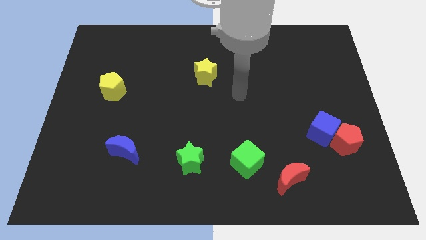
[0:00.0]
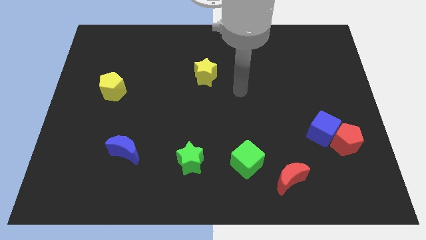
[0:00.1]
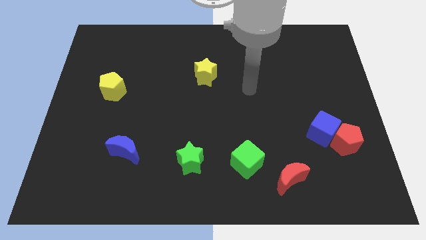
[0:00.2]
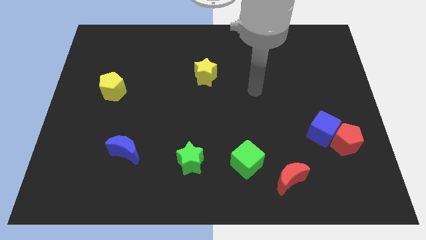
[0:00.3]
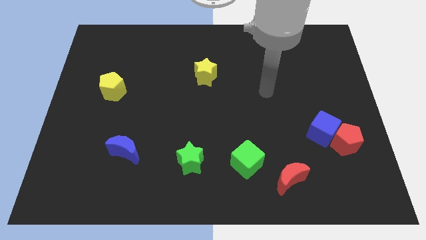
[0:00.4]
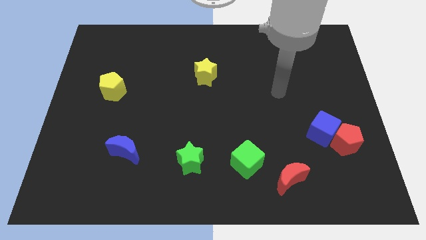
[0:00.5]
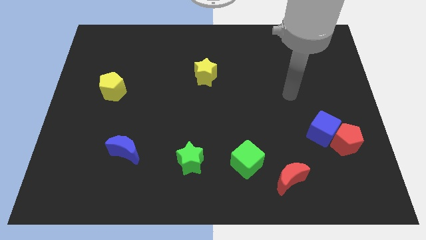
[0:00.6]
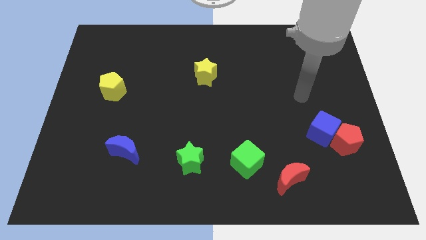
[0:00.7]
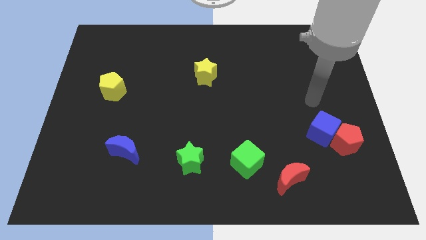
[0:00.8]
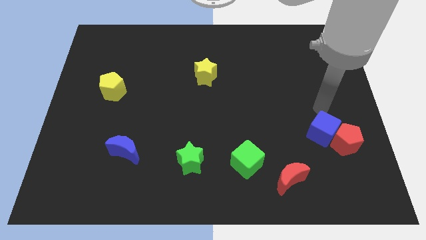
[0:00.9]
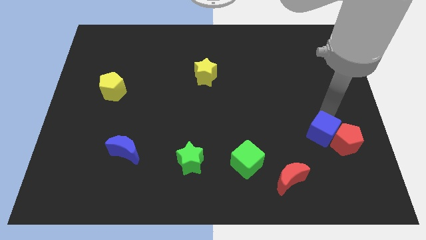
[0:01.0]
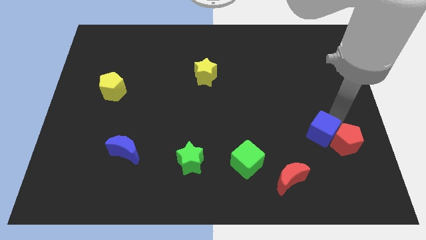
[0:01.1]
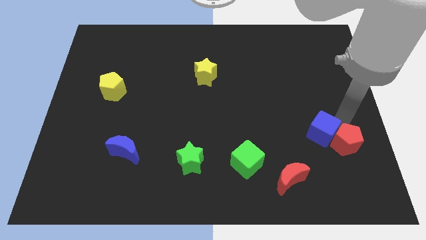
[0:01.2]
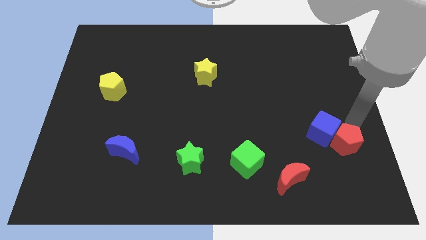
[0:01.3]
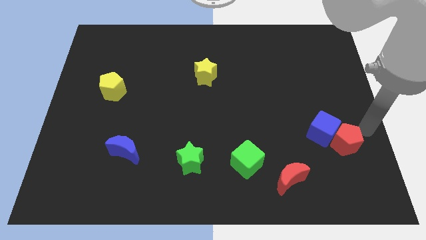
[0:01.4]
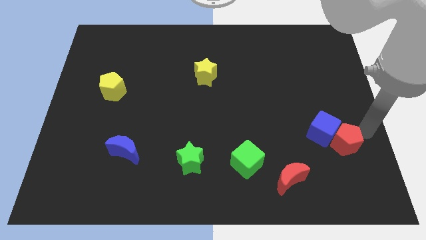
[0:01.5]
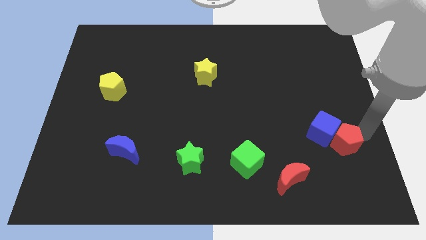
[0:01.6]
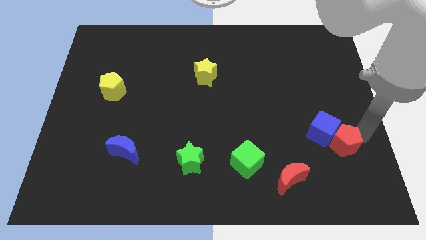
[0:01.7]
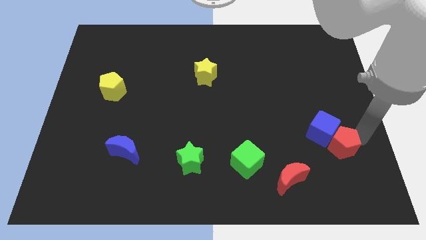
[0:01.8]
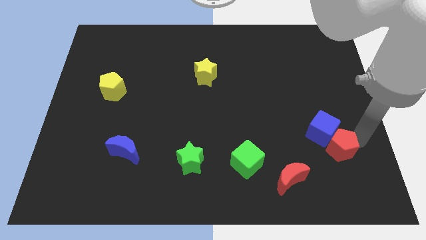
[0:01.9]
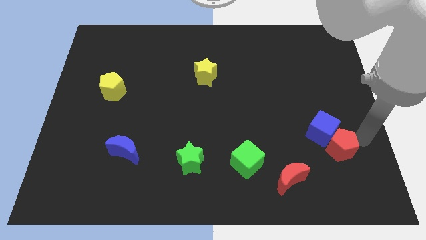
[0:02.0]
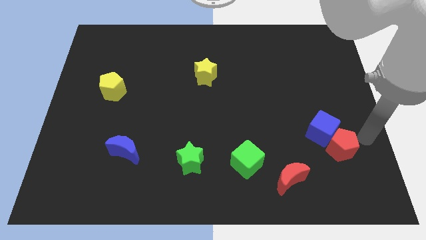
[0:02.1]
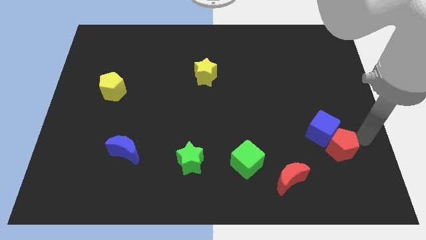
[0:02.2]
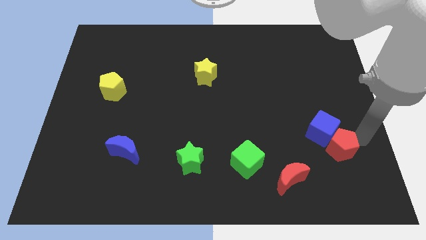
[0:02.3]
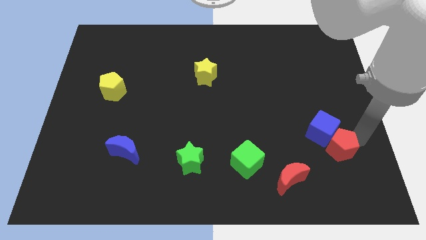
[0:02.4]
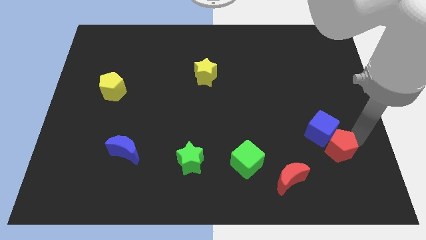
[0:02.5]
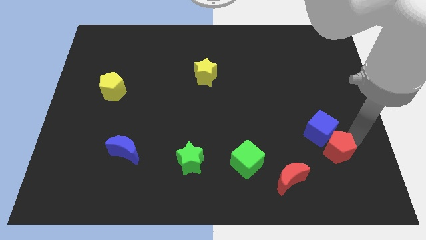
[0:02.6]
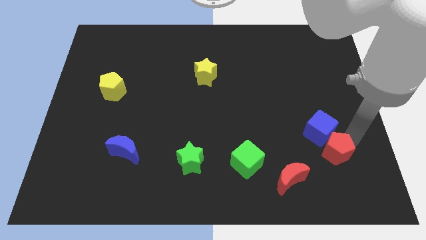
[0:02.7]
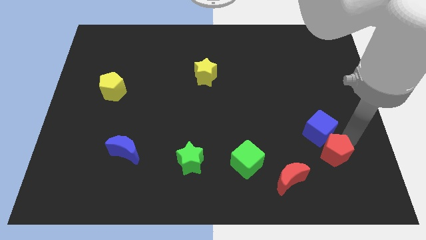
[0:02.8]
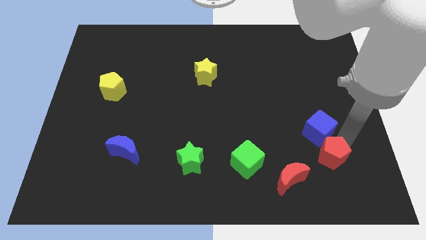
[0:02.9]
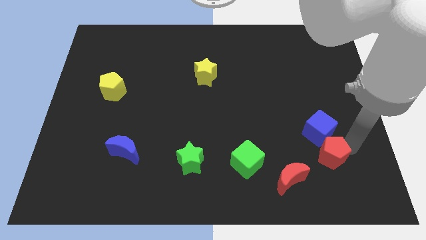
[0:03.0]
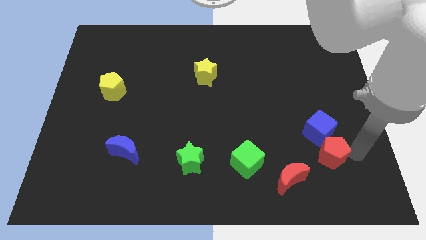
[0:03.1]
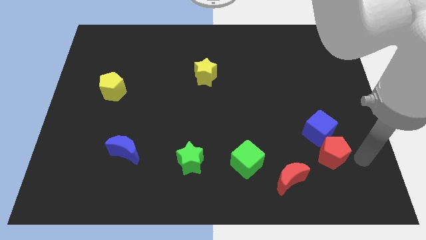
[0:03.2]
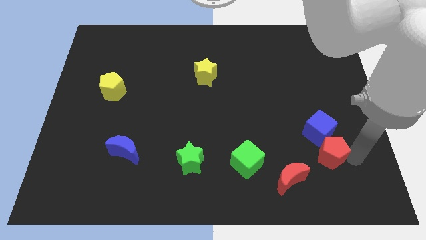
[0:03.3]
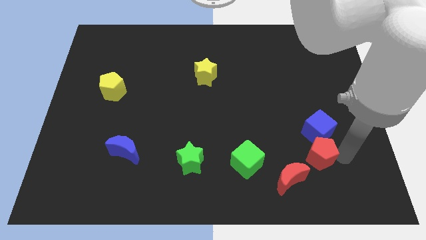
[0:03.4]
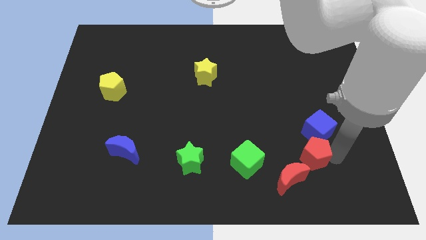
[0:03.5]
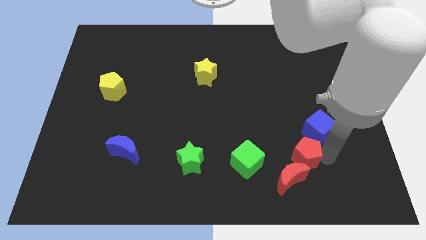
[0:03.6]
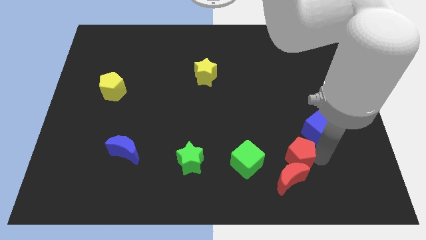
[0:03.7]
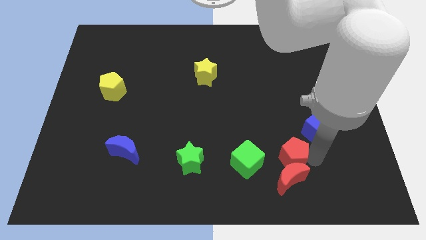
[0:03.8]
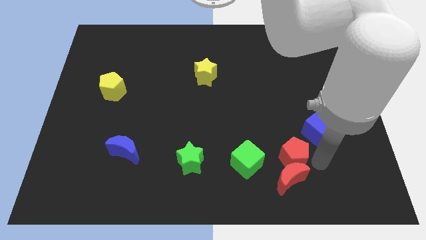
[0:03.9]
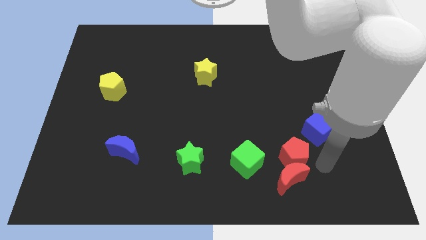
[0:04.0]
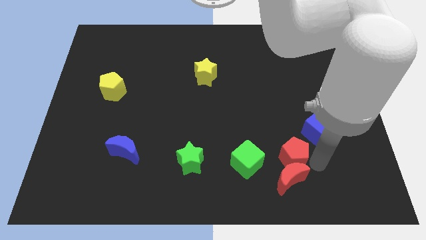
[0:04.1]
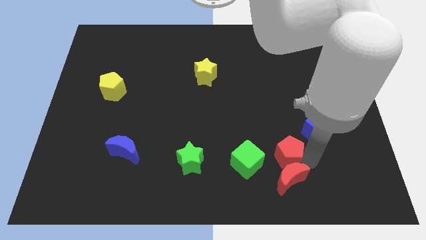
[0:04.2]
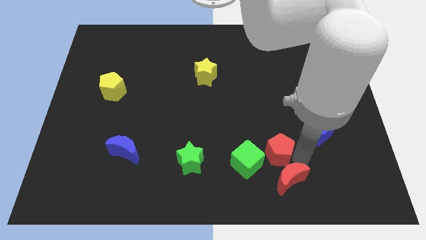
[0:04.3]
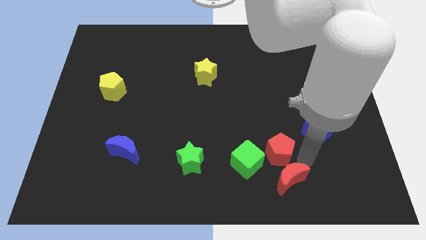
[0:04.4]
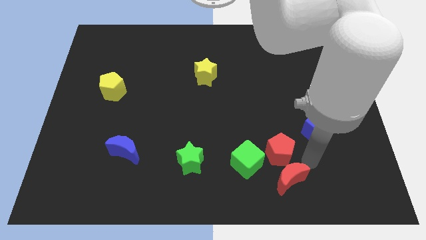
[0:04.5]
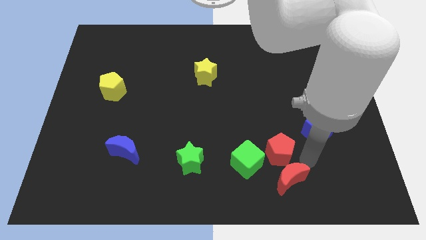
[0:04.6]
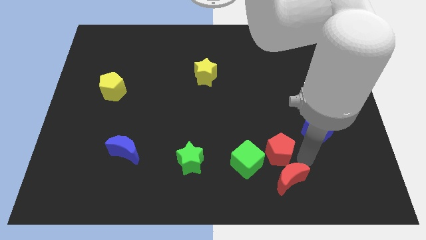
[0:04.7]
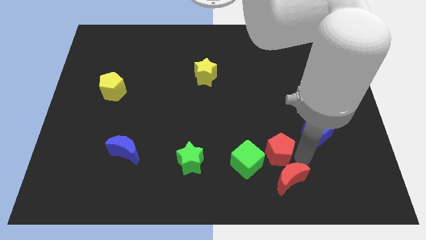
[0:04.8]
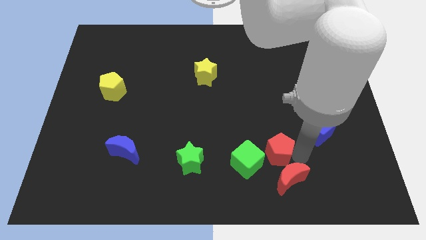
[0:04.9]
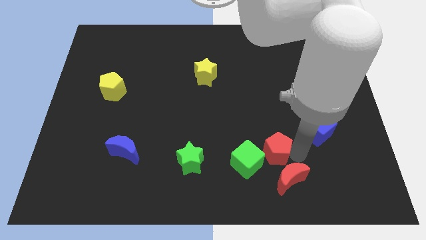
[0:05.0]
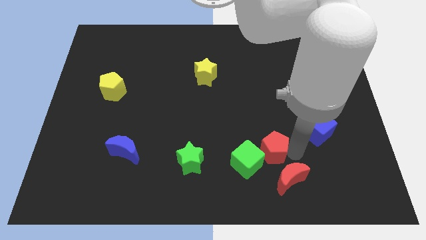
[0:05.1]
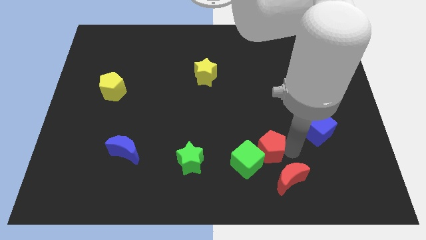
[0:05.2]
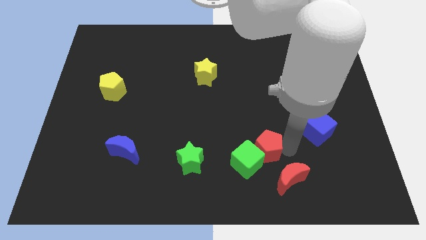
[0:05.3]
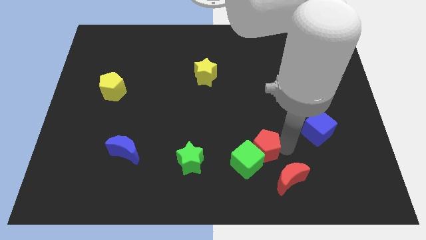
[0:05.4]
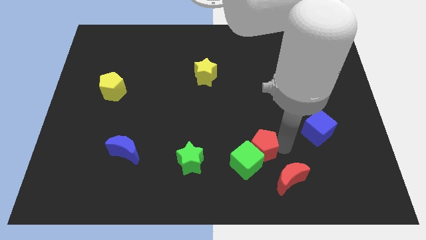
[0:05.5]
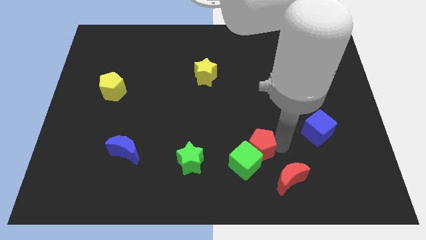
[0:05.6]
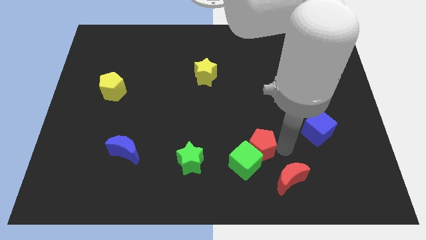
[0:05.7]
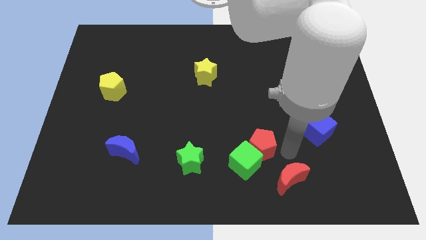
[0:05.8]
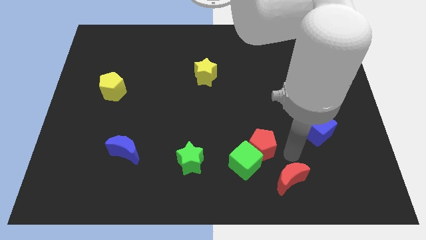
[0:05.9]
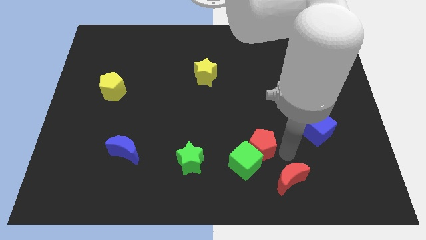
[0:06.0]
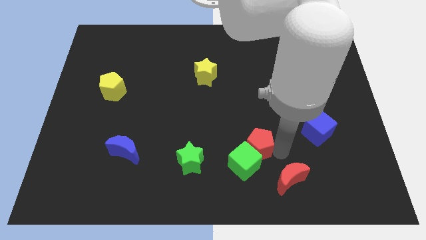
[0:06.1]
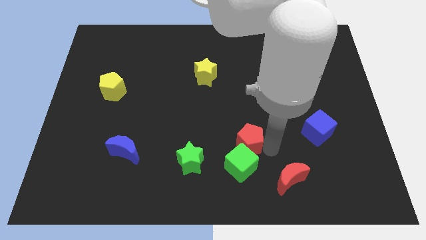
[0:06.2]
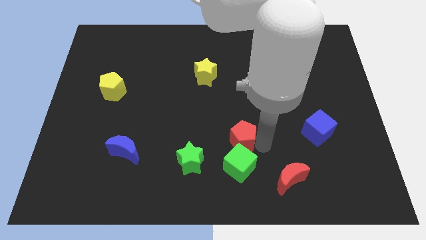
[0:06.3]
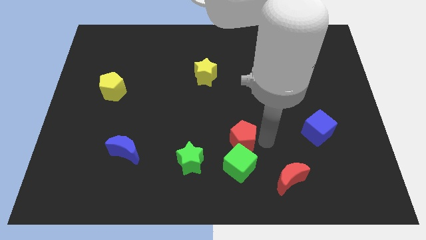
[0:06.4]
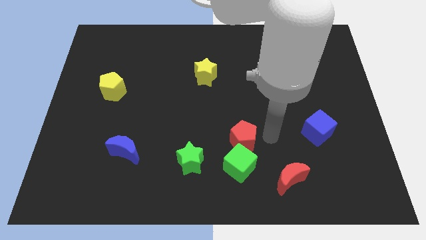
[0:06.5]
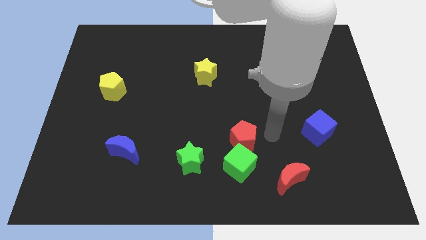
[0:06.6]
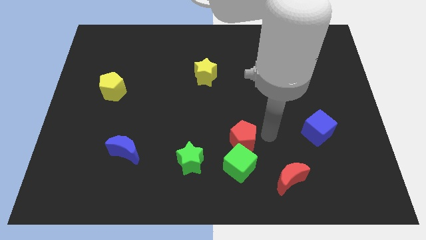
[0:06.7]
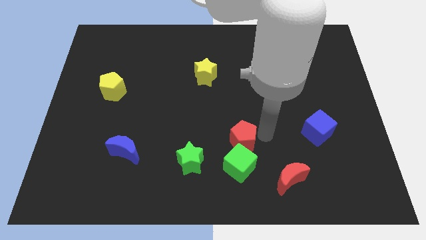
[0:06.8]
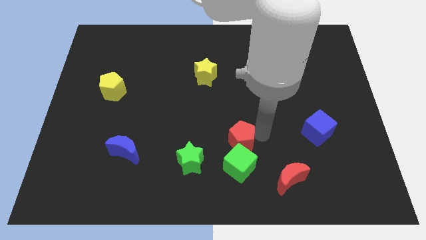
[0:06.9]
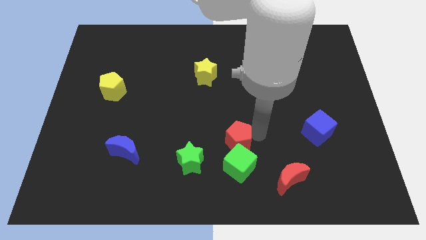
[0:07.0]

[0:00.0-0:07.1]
move the red pentagon to the top left of the green cube

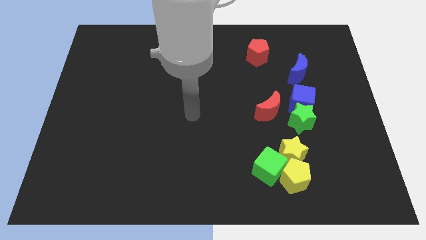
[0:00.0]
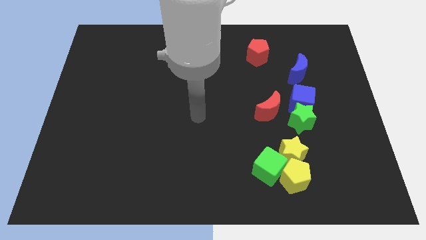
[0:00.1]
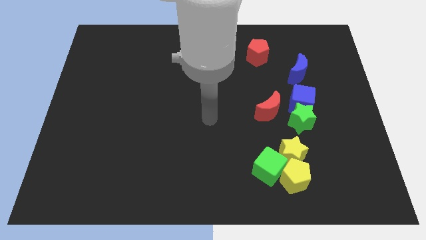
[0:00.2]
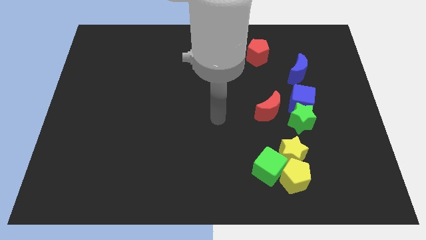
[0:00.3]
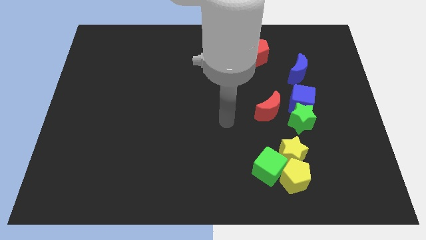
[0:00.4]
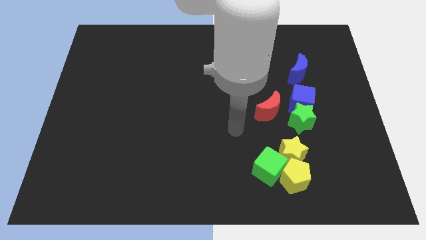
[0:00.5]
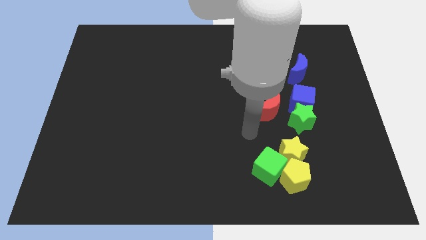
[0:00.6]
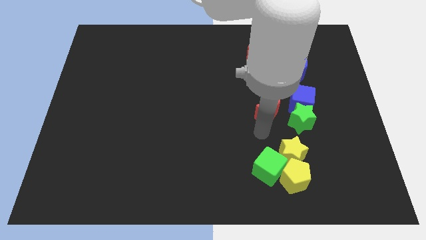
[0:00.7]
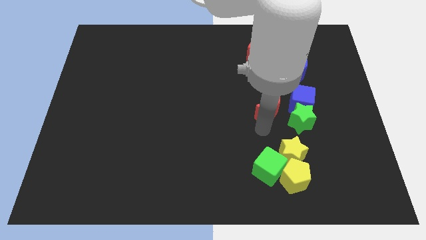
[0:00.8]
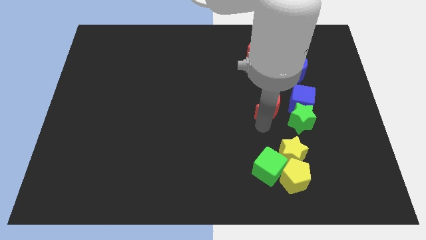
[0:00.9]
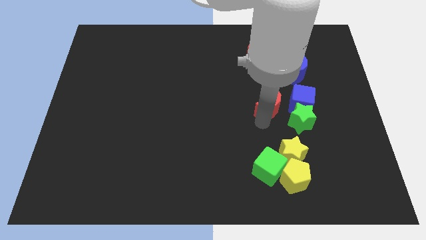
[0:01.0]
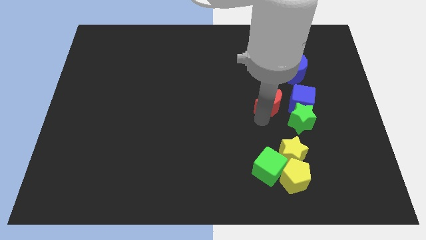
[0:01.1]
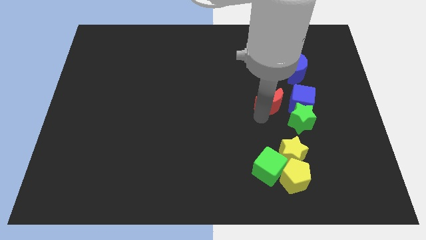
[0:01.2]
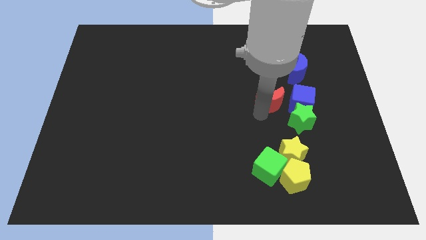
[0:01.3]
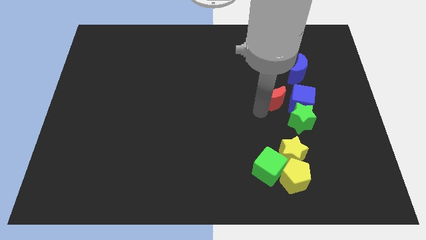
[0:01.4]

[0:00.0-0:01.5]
put the red moon to the top left of the blue cube
